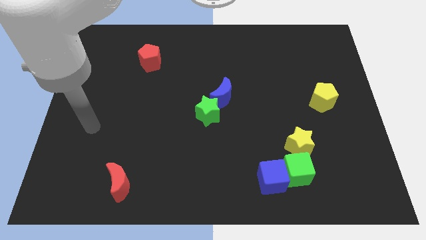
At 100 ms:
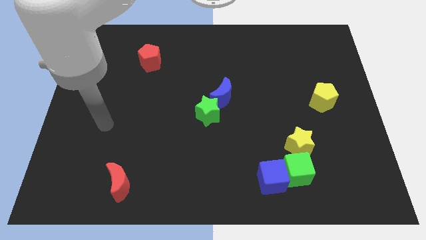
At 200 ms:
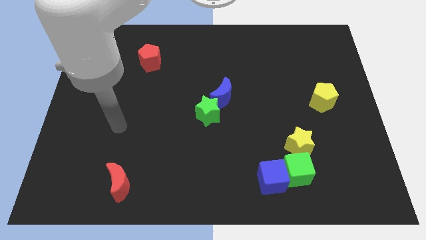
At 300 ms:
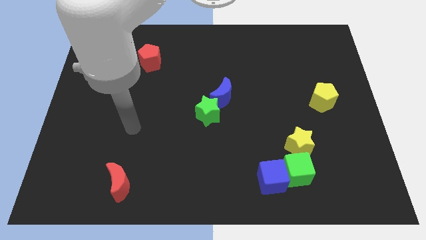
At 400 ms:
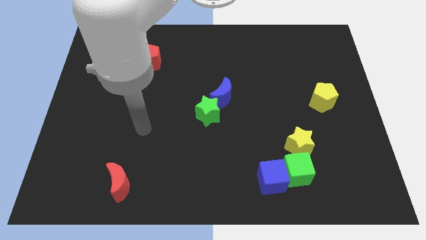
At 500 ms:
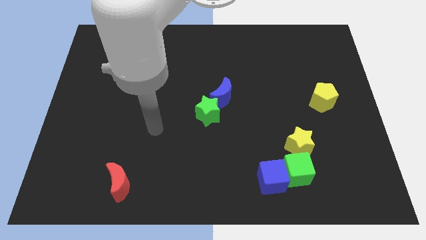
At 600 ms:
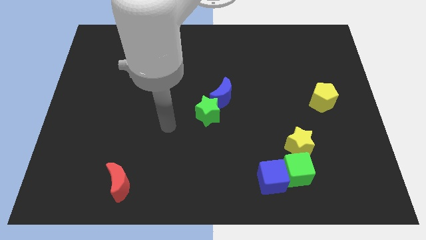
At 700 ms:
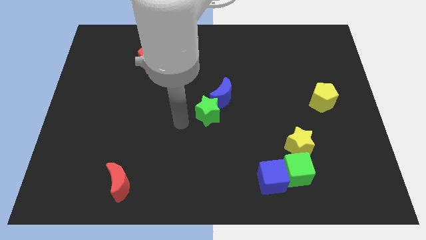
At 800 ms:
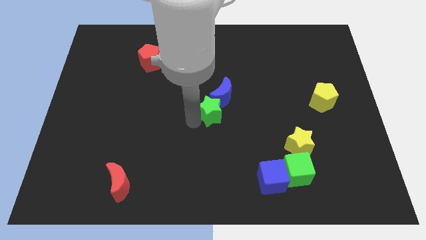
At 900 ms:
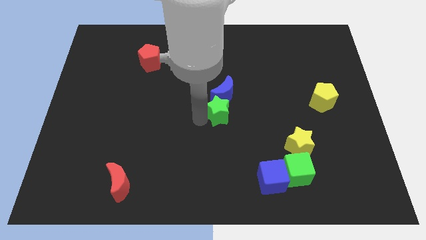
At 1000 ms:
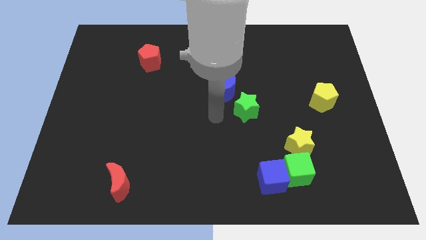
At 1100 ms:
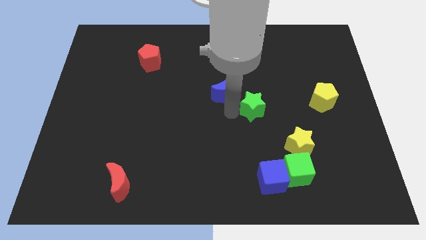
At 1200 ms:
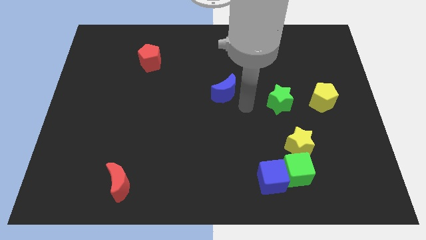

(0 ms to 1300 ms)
pull the blue moon apart from the green star

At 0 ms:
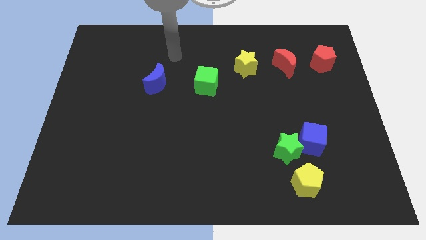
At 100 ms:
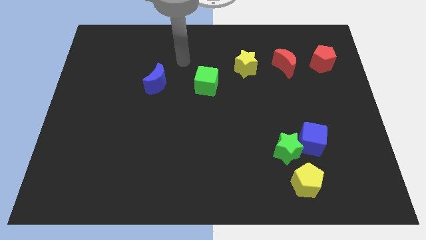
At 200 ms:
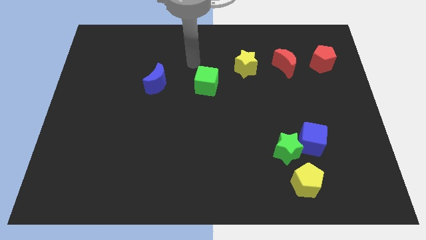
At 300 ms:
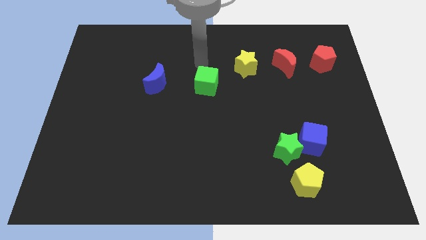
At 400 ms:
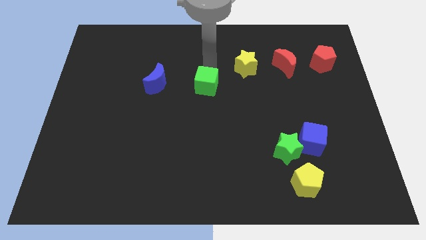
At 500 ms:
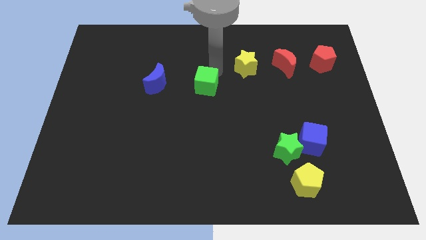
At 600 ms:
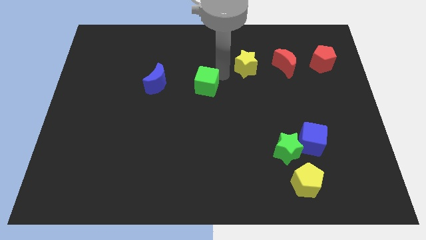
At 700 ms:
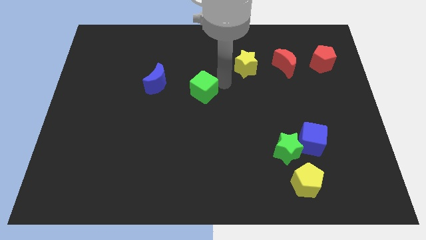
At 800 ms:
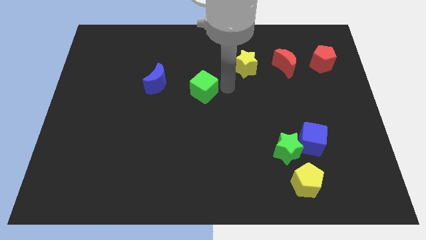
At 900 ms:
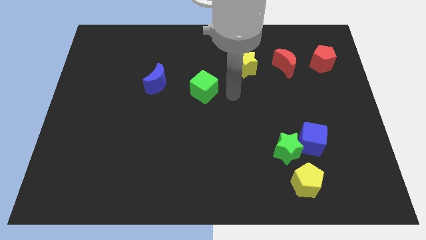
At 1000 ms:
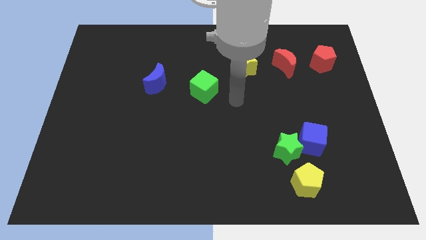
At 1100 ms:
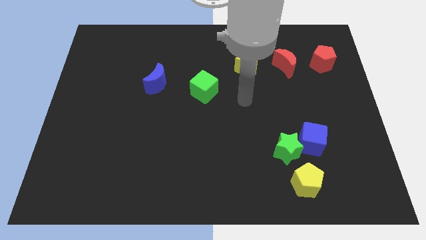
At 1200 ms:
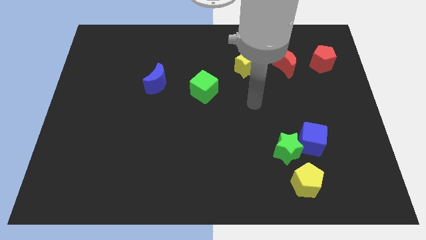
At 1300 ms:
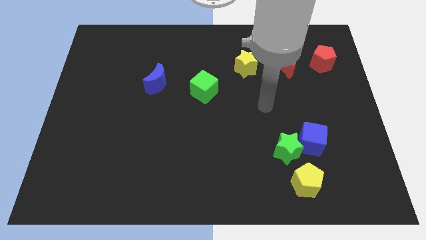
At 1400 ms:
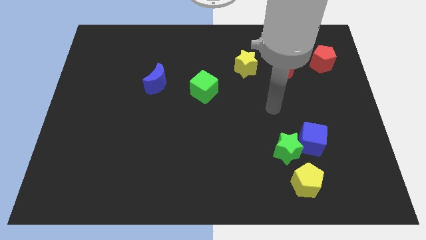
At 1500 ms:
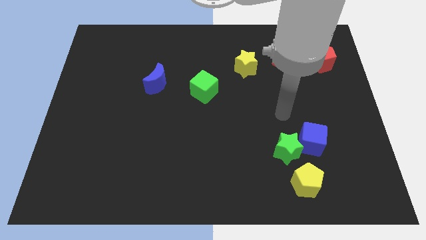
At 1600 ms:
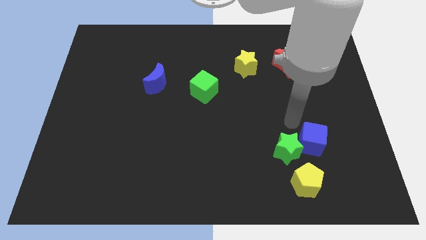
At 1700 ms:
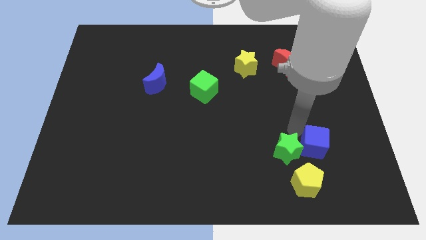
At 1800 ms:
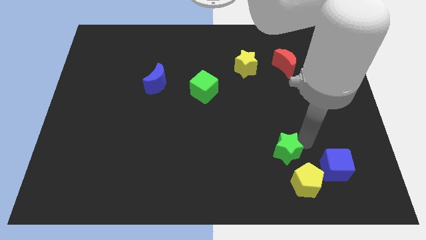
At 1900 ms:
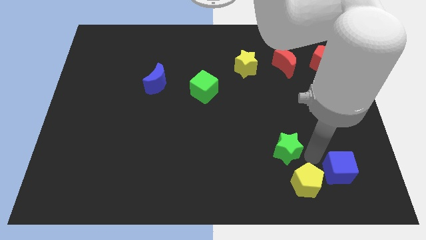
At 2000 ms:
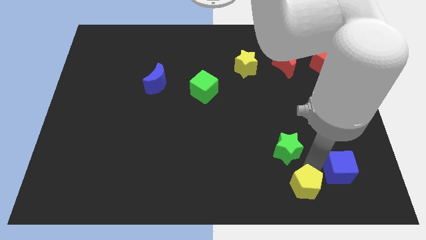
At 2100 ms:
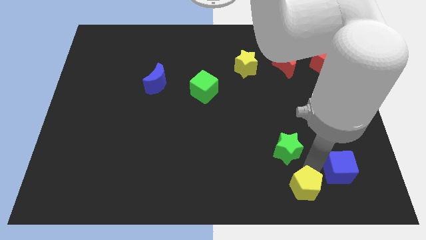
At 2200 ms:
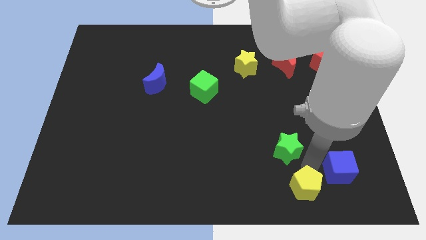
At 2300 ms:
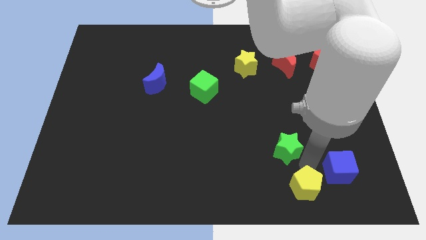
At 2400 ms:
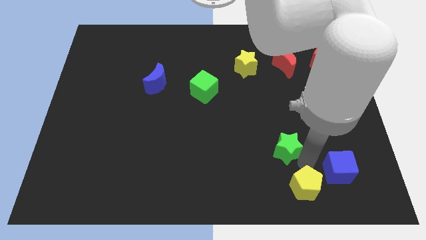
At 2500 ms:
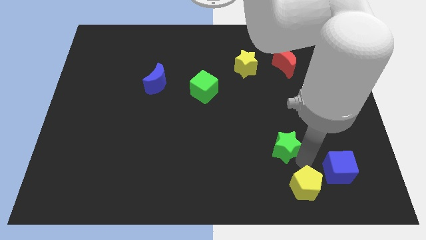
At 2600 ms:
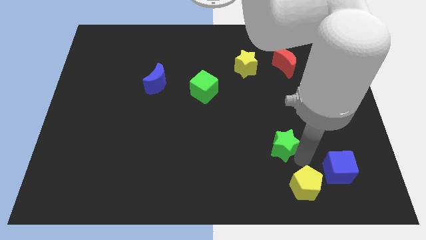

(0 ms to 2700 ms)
move the green star away from the blue cube and yellow pentagon

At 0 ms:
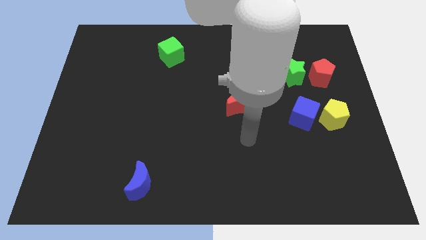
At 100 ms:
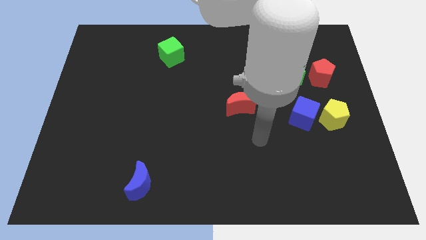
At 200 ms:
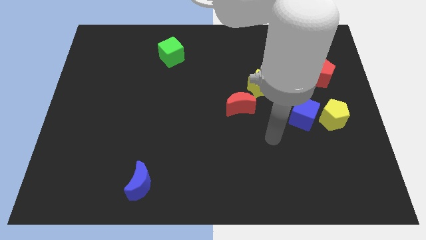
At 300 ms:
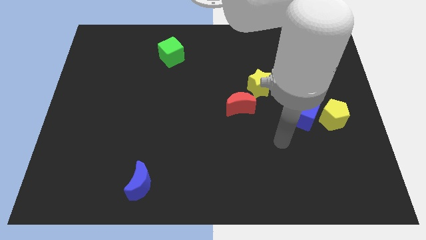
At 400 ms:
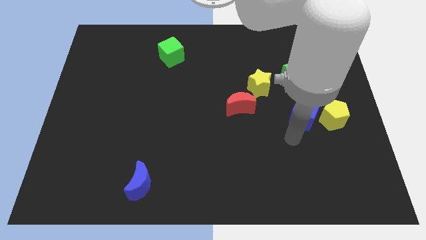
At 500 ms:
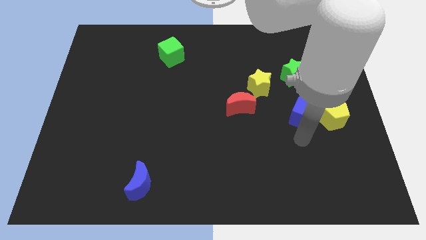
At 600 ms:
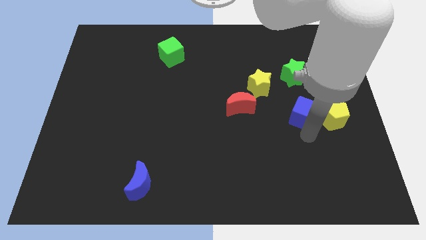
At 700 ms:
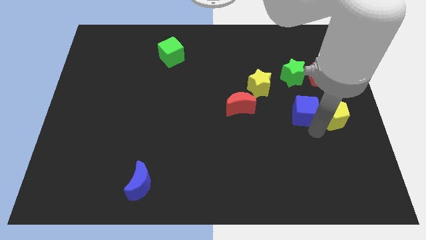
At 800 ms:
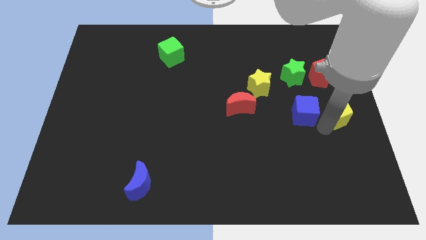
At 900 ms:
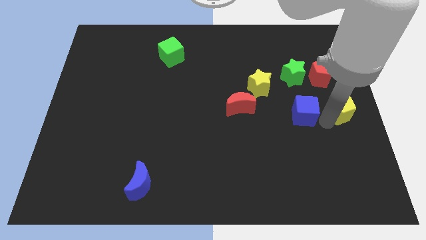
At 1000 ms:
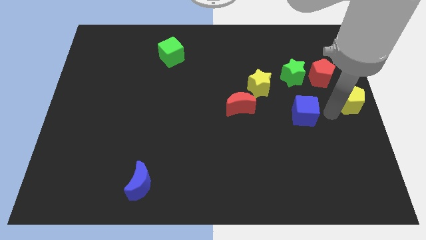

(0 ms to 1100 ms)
move the blue cube away from the yellow pentagon

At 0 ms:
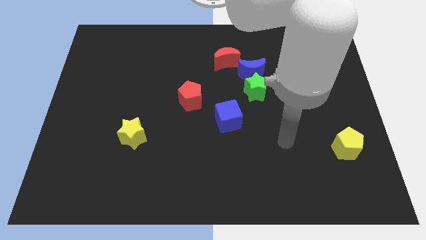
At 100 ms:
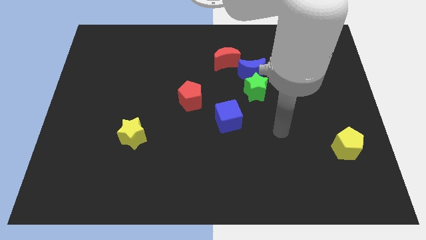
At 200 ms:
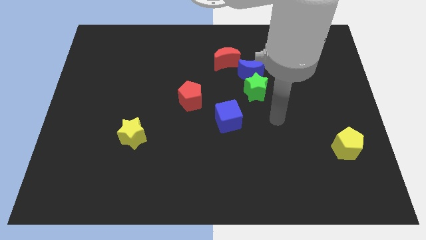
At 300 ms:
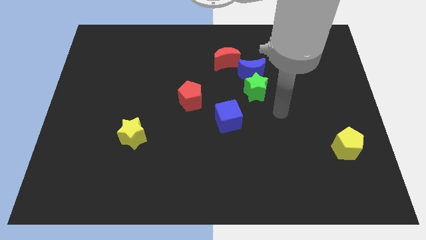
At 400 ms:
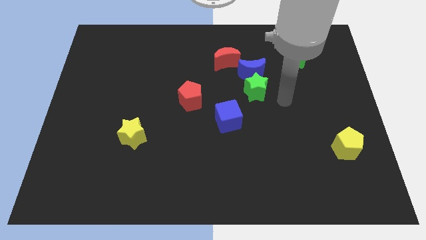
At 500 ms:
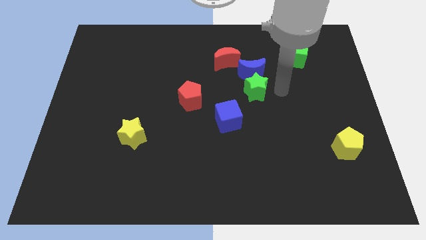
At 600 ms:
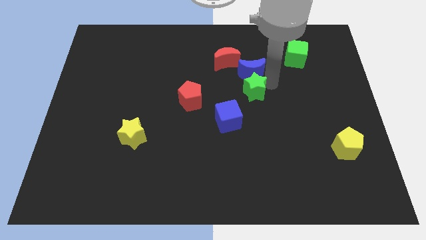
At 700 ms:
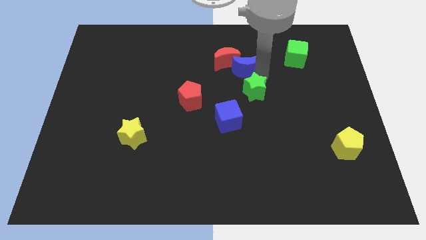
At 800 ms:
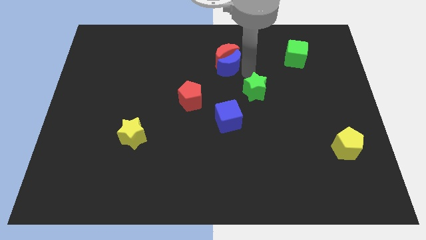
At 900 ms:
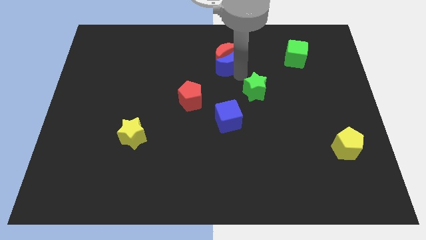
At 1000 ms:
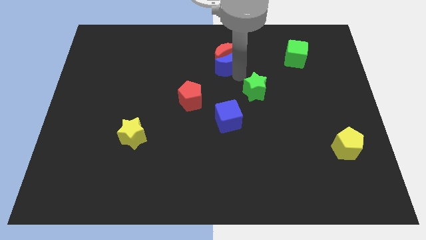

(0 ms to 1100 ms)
move the green star away from the blue moon

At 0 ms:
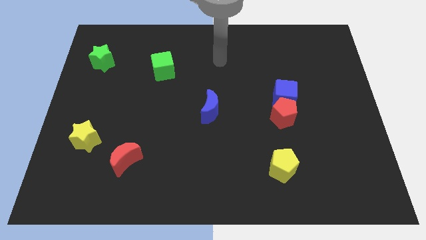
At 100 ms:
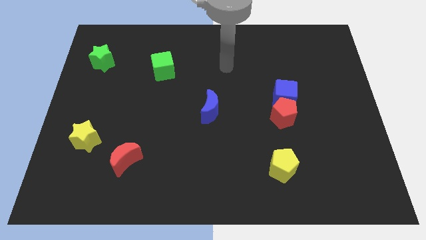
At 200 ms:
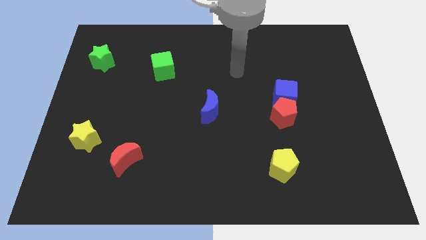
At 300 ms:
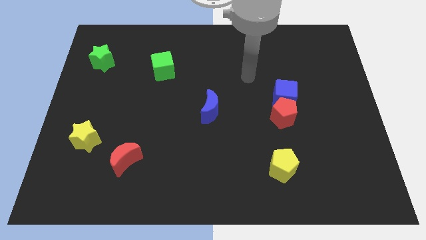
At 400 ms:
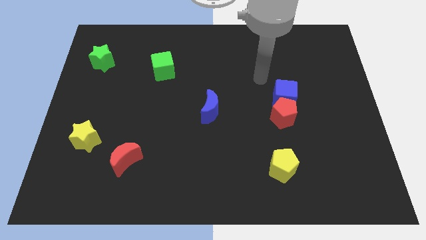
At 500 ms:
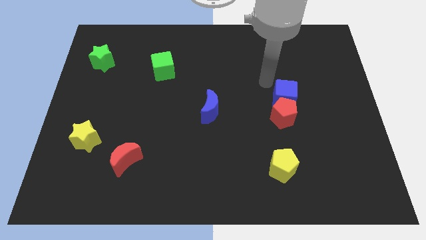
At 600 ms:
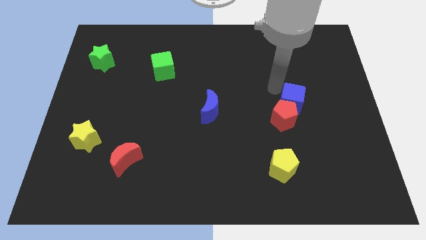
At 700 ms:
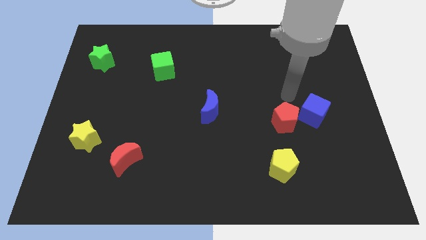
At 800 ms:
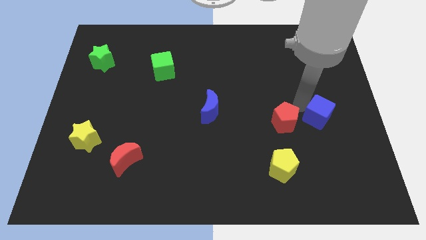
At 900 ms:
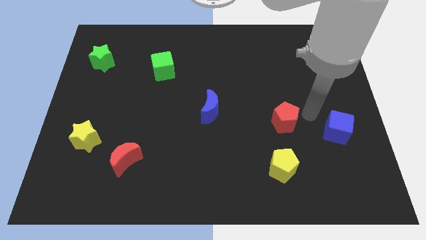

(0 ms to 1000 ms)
move the red pentagon away from the blue cube

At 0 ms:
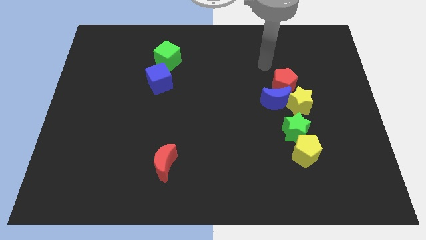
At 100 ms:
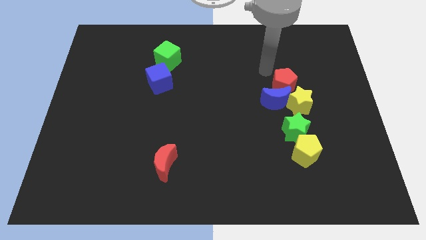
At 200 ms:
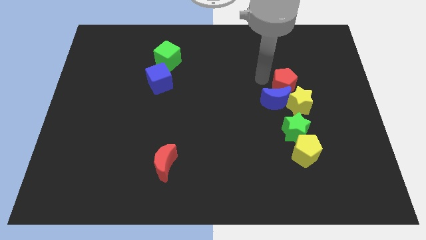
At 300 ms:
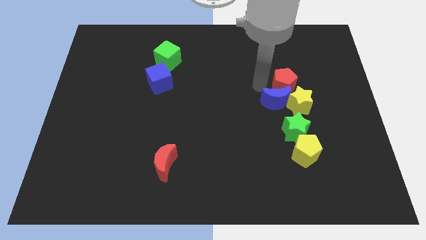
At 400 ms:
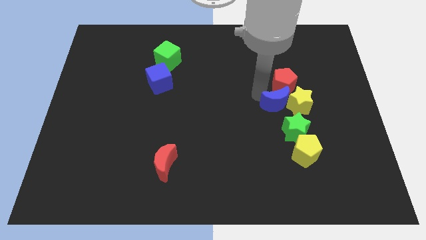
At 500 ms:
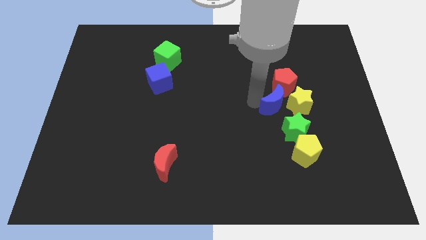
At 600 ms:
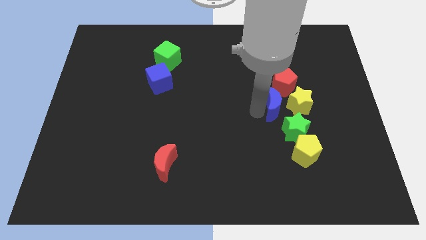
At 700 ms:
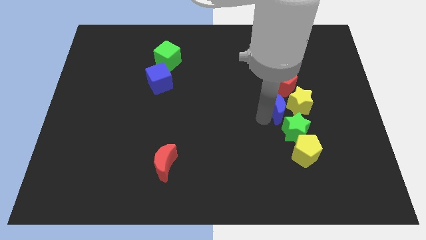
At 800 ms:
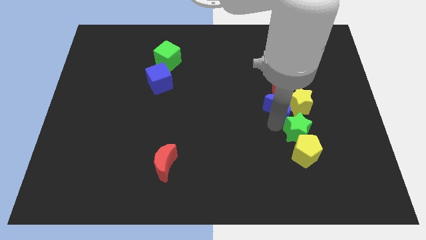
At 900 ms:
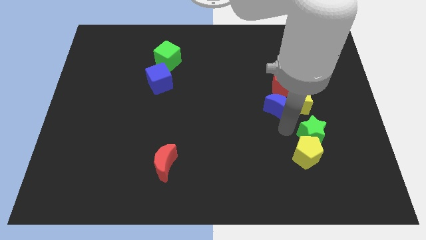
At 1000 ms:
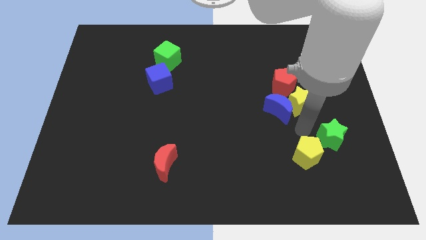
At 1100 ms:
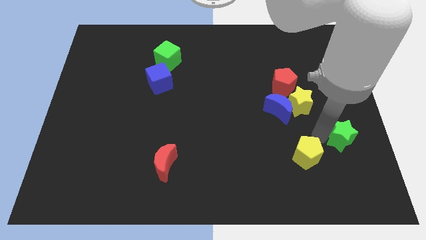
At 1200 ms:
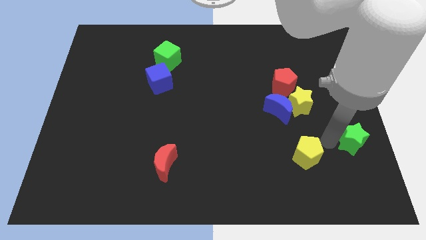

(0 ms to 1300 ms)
pull the yellow pentagon apart from the green star

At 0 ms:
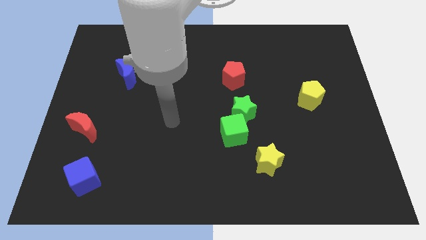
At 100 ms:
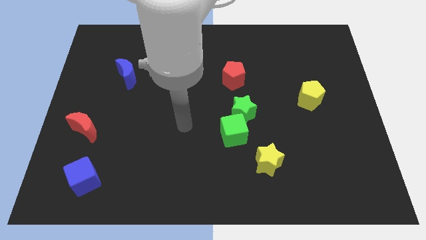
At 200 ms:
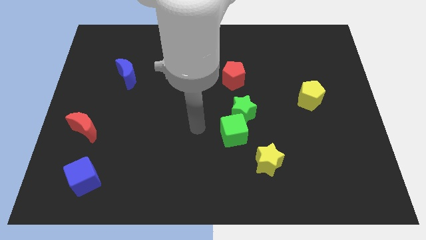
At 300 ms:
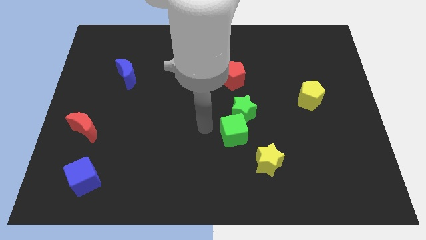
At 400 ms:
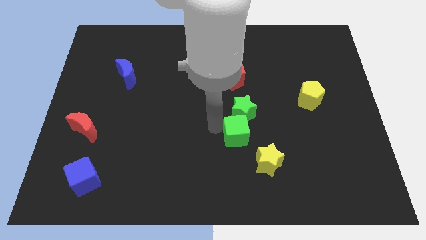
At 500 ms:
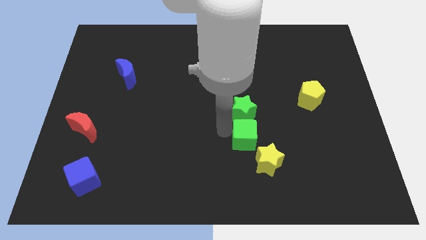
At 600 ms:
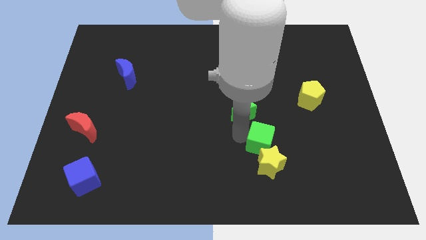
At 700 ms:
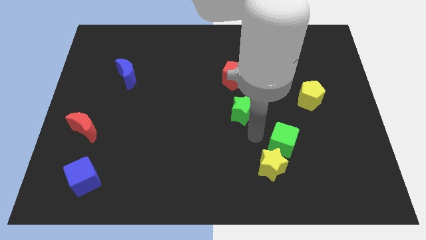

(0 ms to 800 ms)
separate the green star from the green cube
